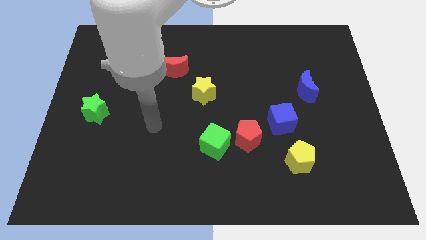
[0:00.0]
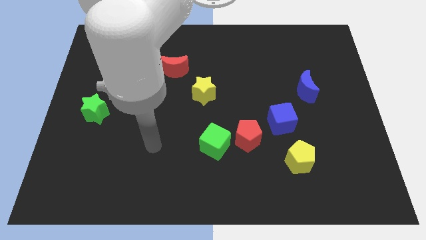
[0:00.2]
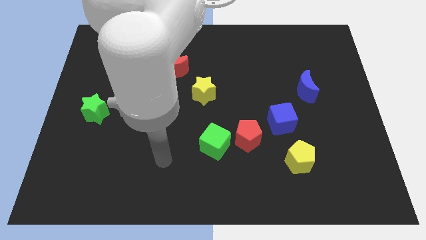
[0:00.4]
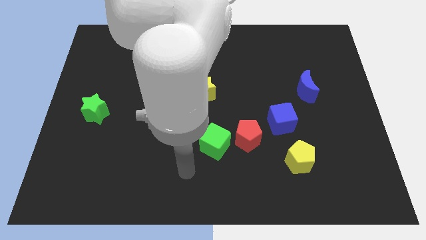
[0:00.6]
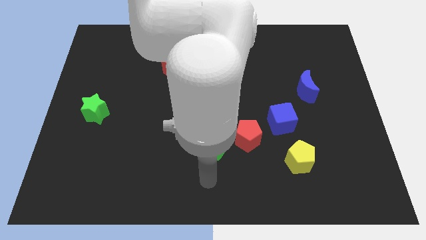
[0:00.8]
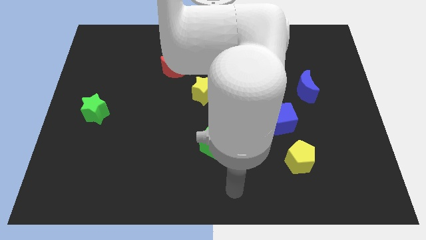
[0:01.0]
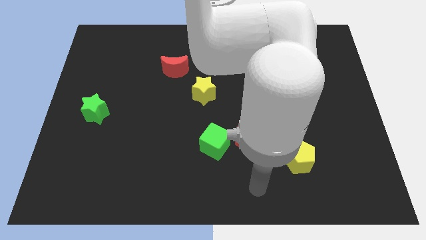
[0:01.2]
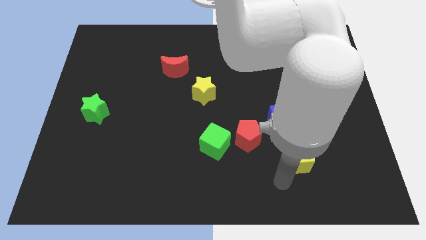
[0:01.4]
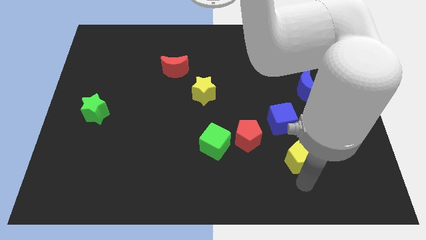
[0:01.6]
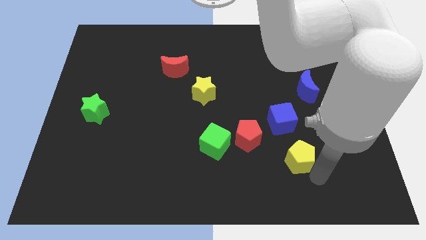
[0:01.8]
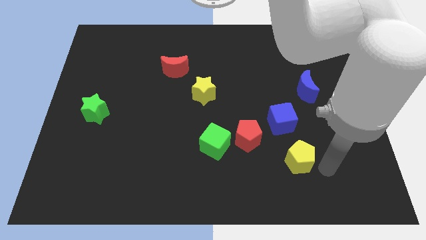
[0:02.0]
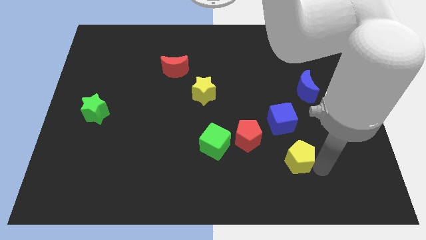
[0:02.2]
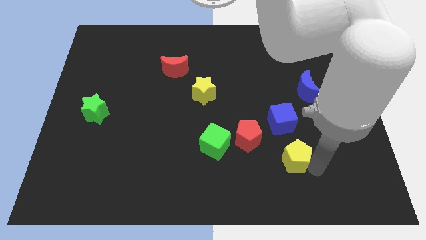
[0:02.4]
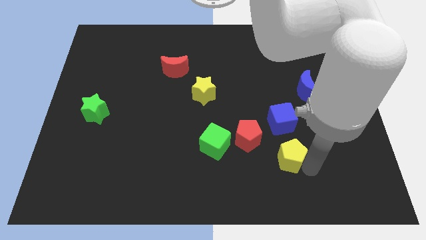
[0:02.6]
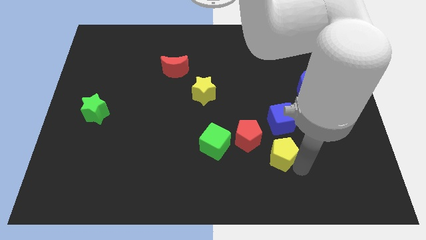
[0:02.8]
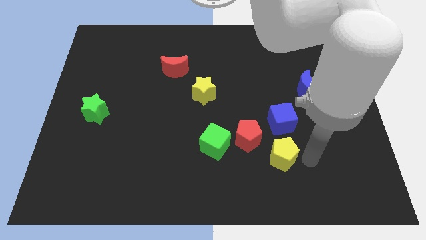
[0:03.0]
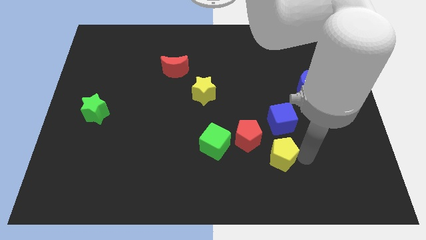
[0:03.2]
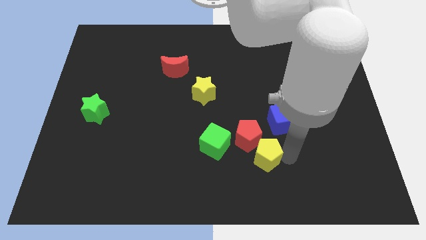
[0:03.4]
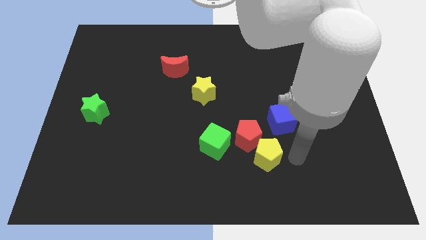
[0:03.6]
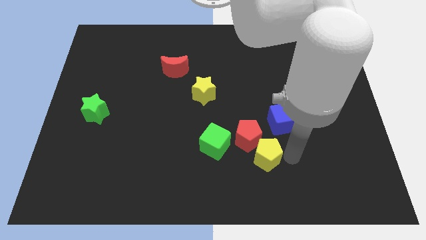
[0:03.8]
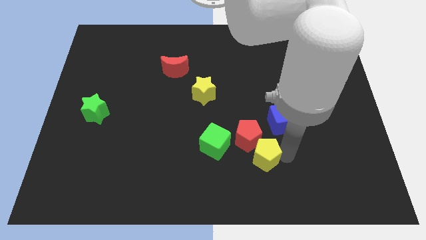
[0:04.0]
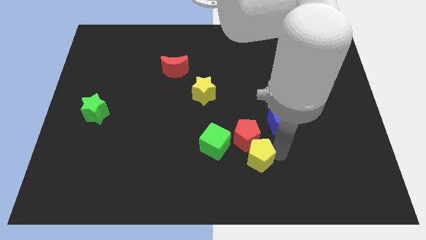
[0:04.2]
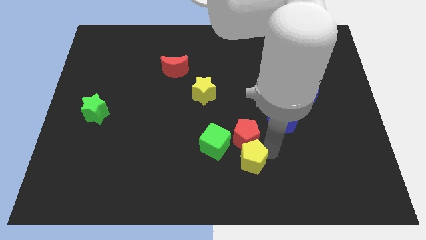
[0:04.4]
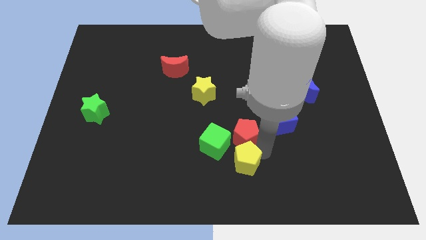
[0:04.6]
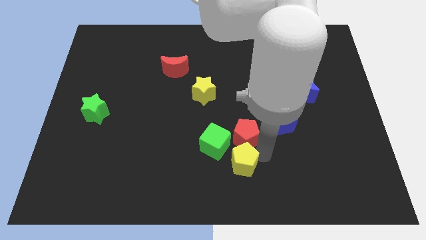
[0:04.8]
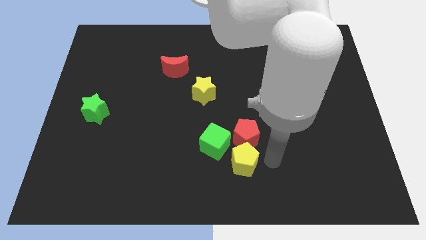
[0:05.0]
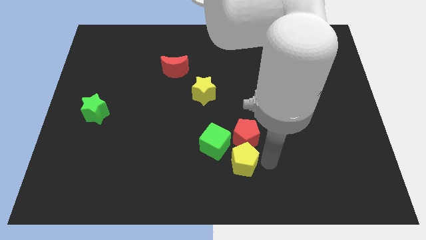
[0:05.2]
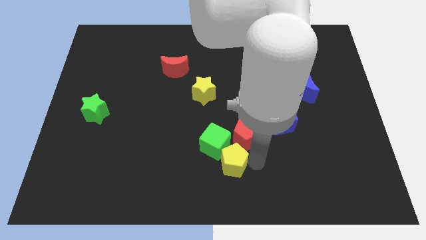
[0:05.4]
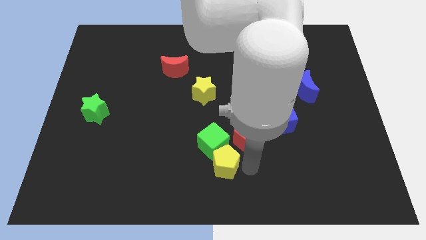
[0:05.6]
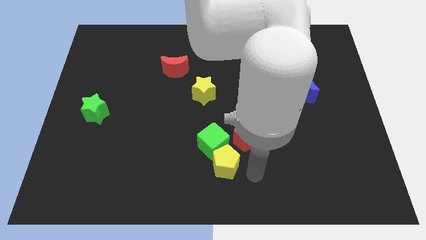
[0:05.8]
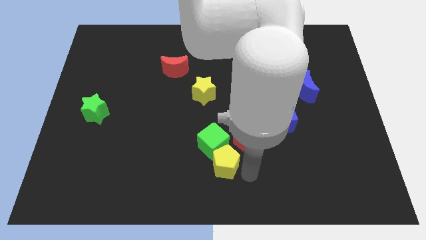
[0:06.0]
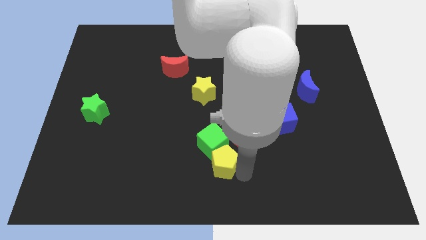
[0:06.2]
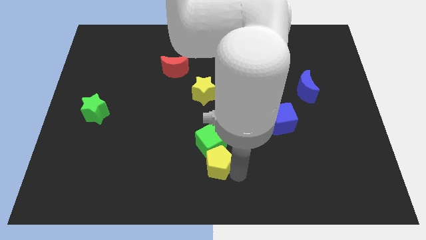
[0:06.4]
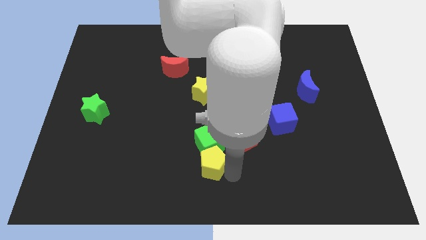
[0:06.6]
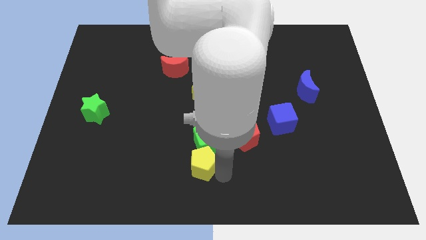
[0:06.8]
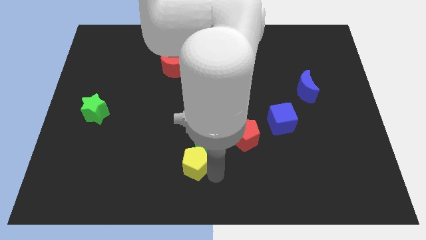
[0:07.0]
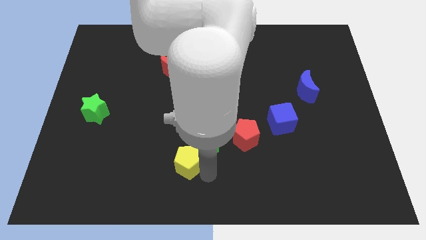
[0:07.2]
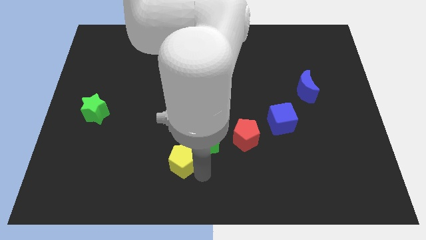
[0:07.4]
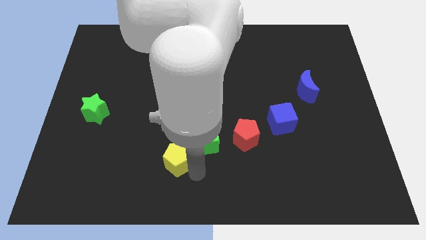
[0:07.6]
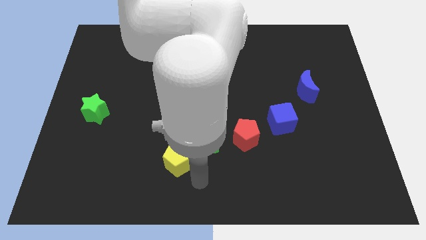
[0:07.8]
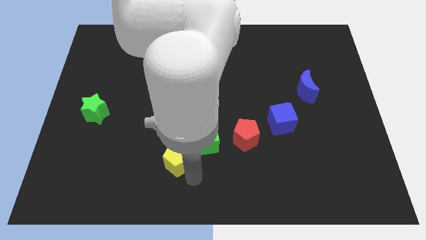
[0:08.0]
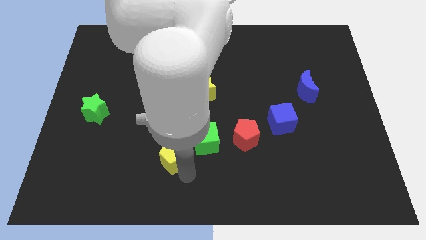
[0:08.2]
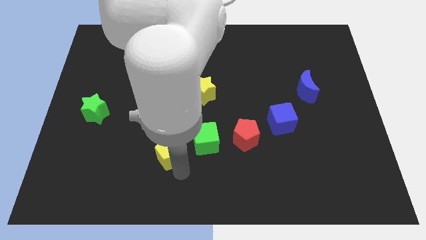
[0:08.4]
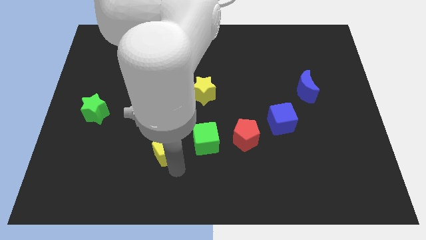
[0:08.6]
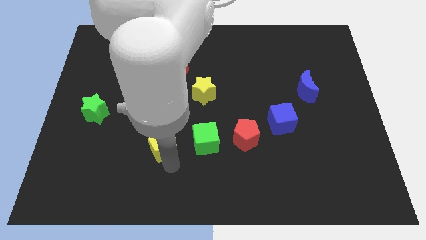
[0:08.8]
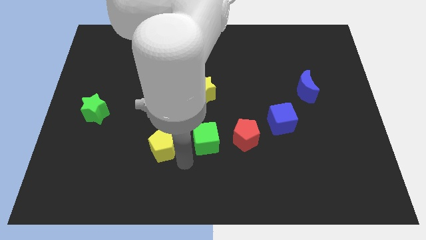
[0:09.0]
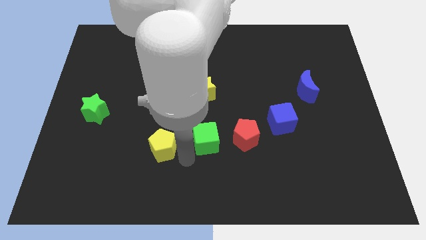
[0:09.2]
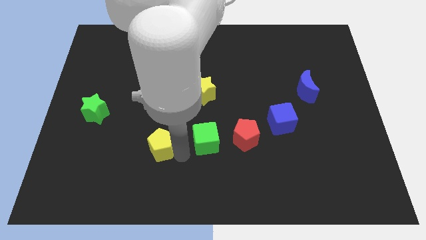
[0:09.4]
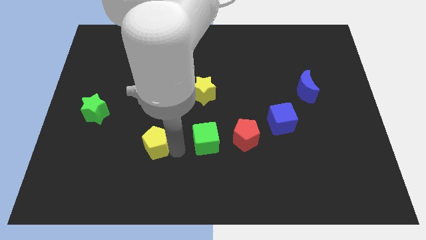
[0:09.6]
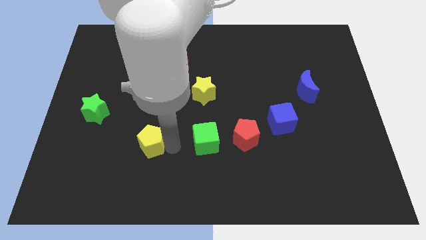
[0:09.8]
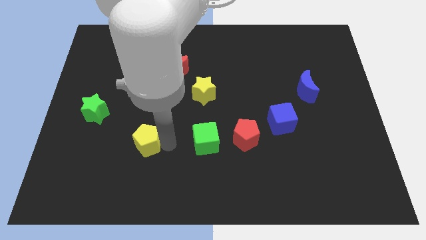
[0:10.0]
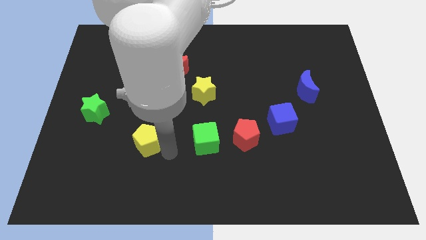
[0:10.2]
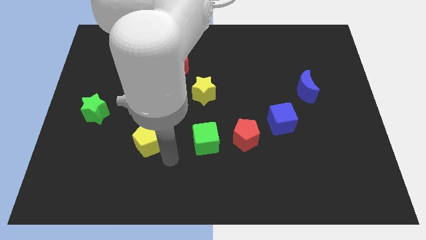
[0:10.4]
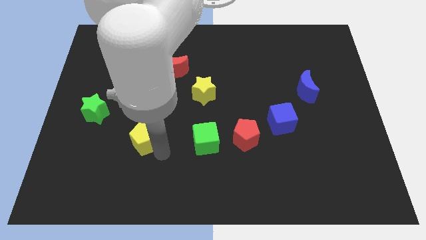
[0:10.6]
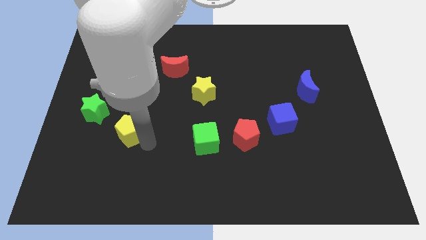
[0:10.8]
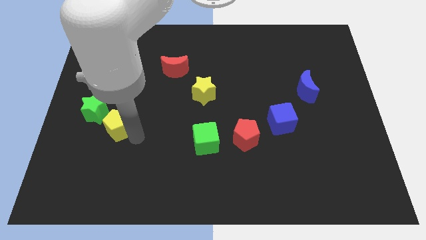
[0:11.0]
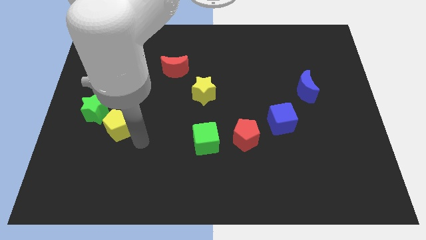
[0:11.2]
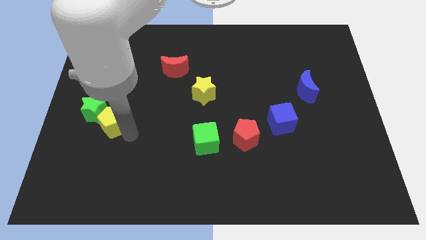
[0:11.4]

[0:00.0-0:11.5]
put the yellow pentagon close to the green star

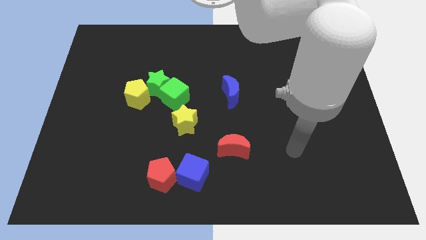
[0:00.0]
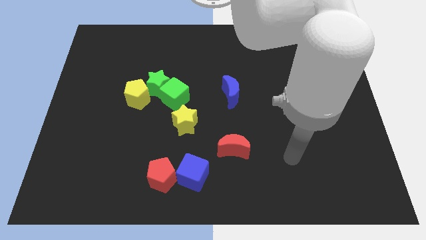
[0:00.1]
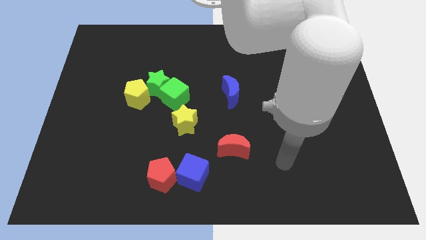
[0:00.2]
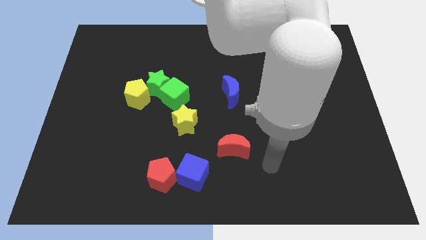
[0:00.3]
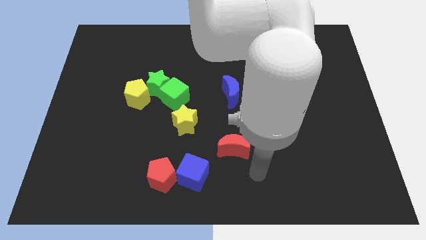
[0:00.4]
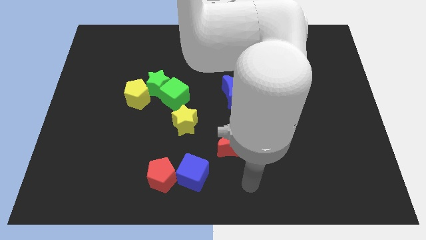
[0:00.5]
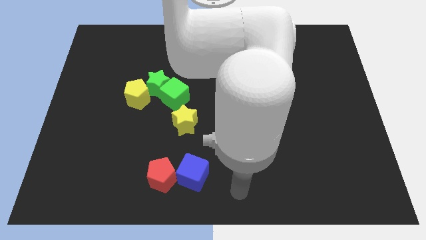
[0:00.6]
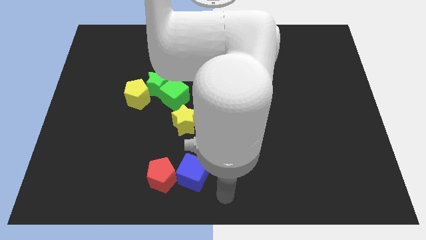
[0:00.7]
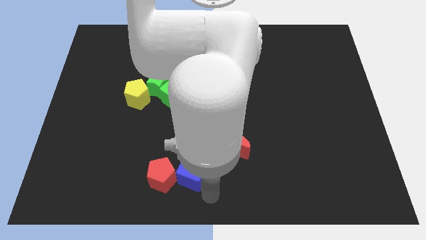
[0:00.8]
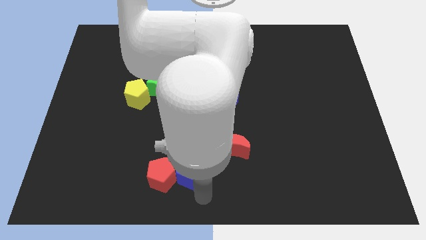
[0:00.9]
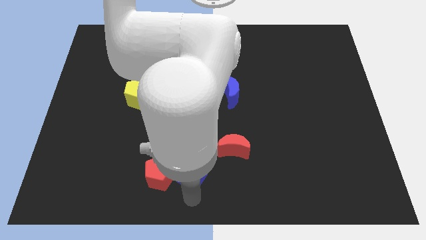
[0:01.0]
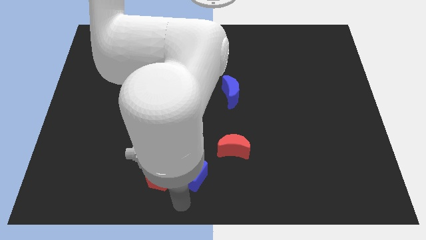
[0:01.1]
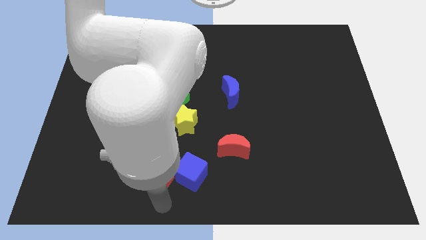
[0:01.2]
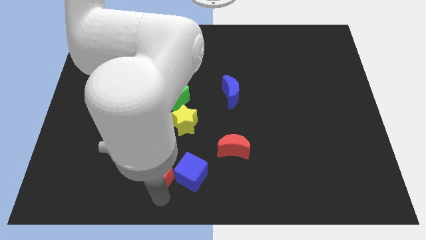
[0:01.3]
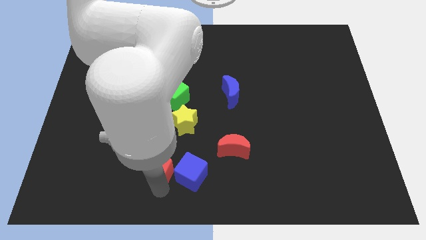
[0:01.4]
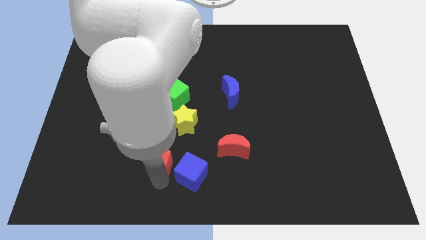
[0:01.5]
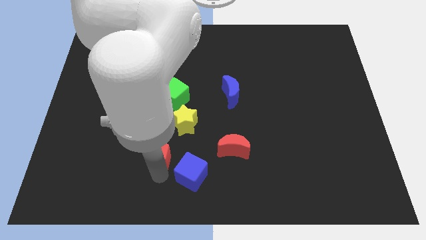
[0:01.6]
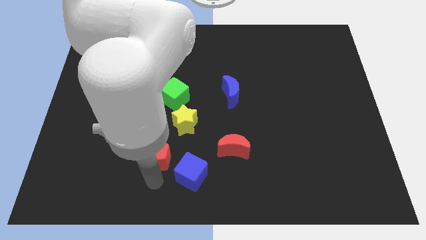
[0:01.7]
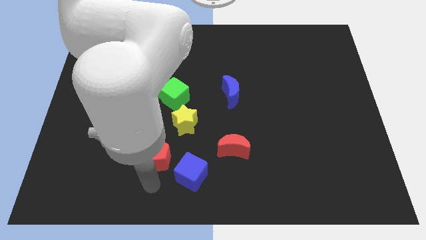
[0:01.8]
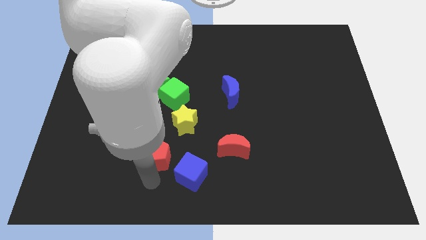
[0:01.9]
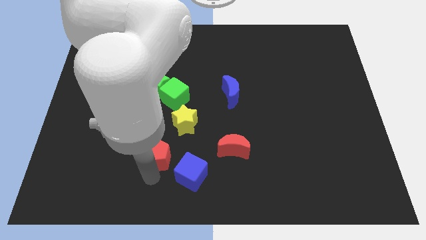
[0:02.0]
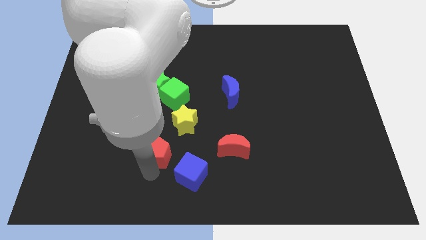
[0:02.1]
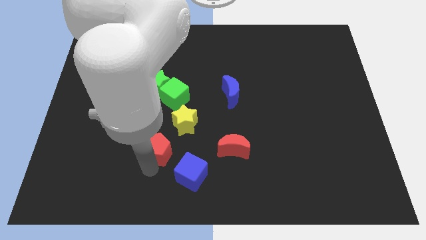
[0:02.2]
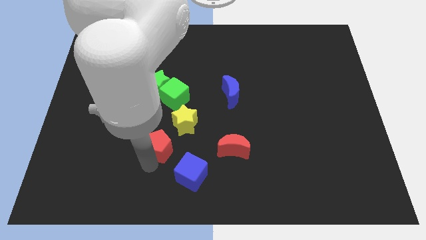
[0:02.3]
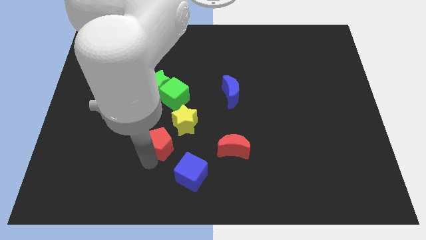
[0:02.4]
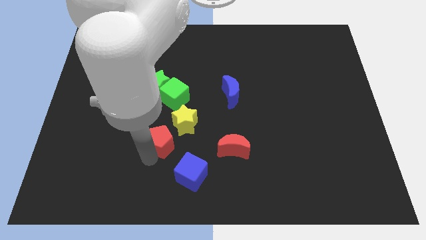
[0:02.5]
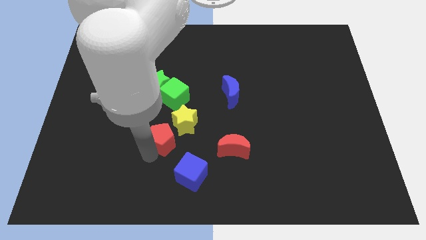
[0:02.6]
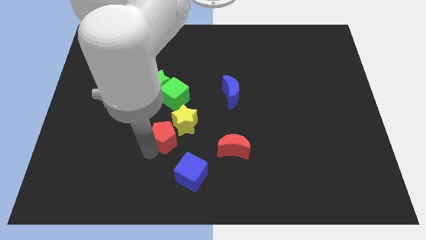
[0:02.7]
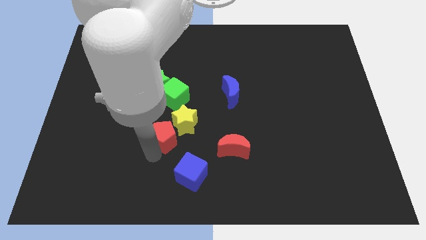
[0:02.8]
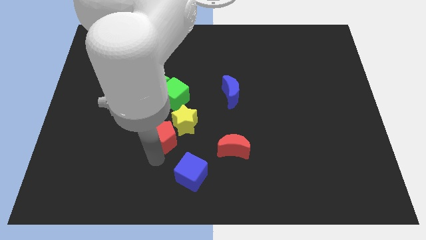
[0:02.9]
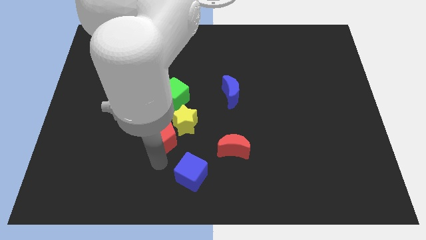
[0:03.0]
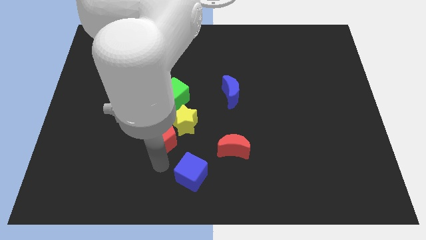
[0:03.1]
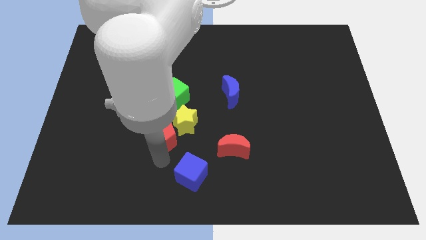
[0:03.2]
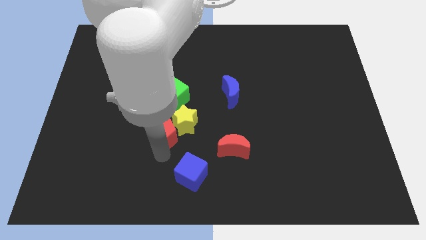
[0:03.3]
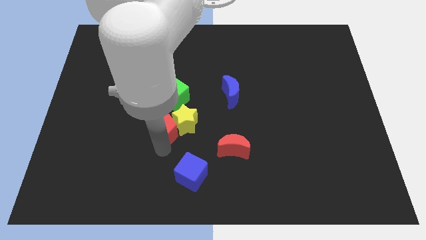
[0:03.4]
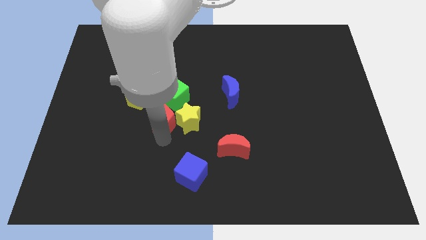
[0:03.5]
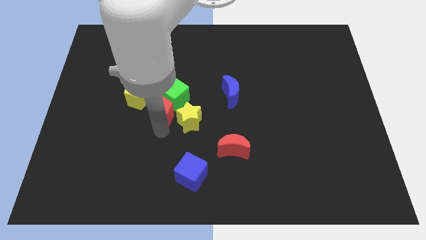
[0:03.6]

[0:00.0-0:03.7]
put the red pentagon towards the green cube
